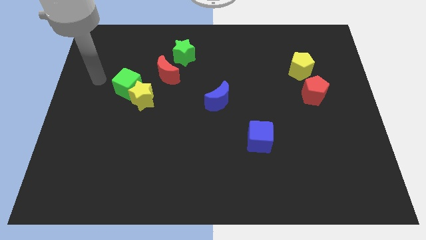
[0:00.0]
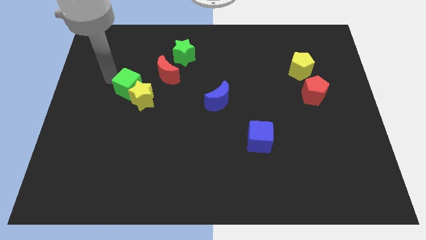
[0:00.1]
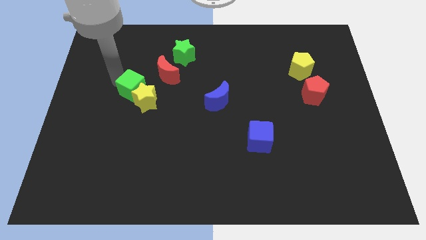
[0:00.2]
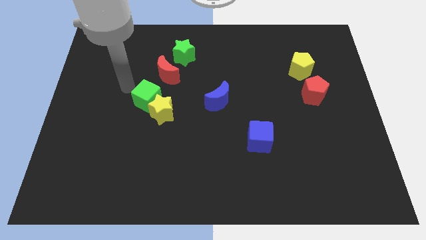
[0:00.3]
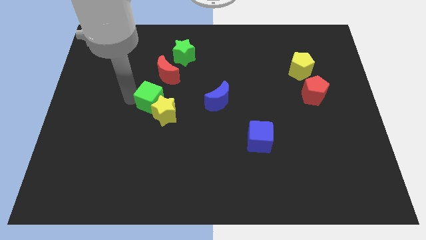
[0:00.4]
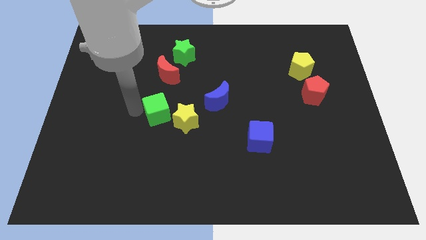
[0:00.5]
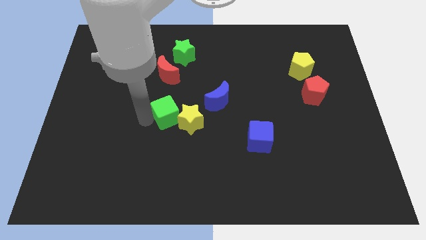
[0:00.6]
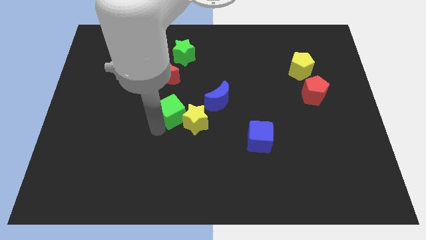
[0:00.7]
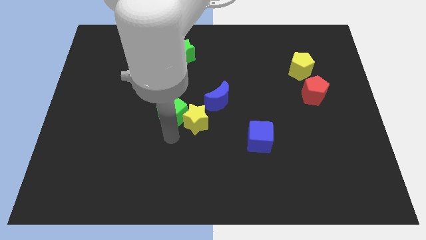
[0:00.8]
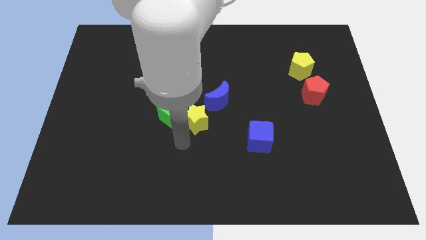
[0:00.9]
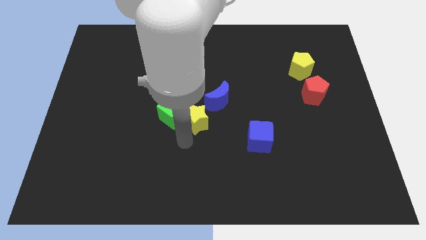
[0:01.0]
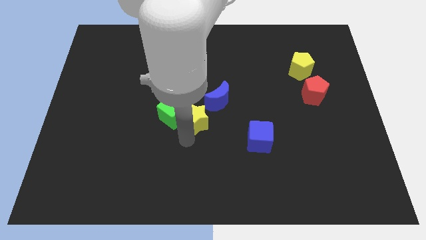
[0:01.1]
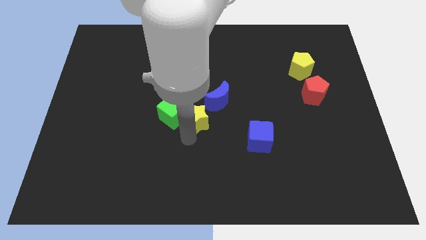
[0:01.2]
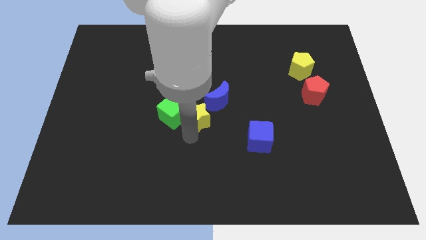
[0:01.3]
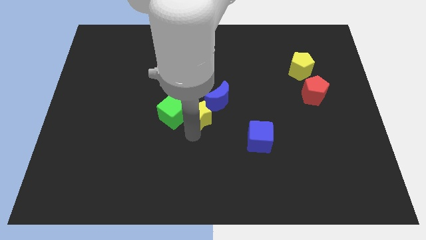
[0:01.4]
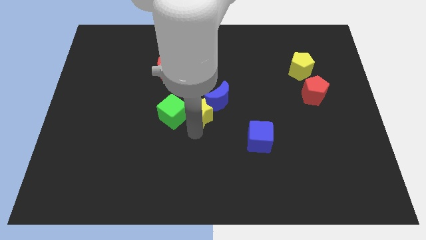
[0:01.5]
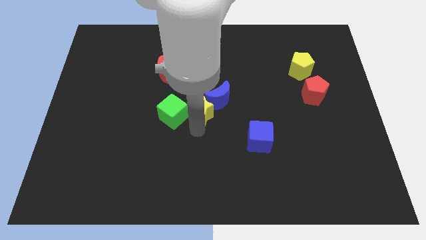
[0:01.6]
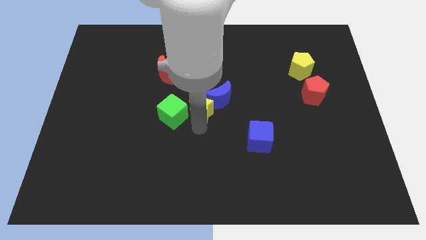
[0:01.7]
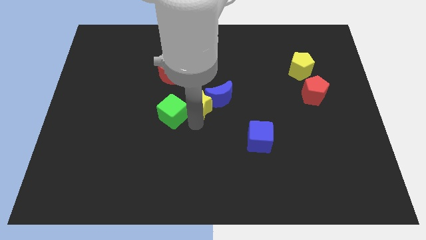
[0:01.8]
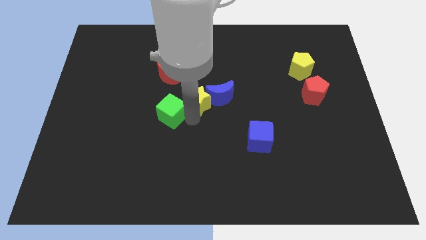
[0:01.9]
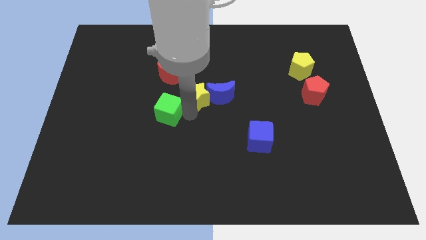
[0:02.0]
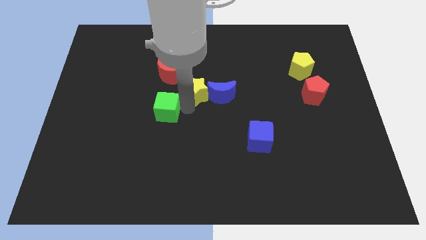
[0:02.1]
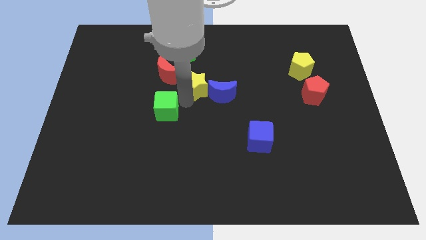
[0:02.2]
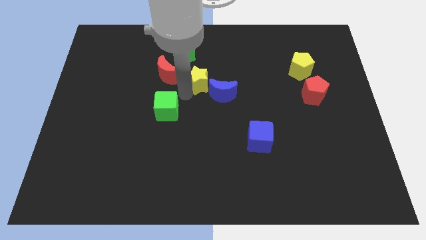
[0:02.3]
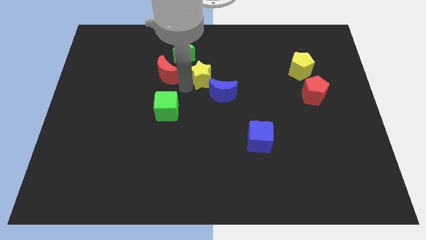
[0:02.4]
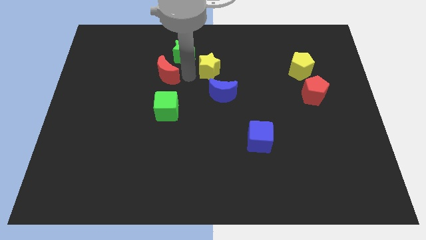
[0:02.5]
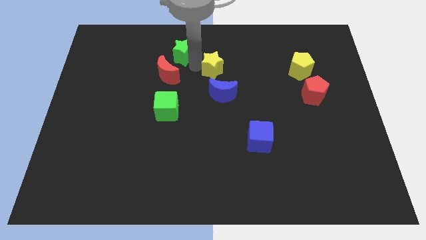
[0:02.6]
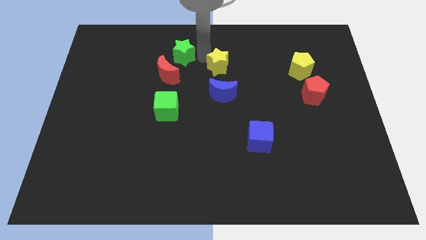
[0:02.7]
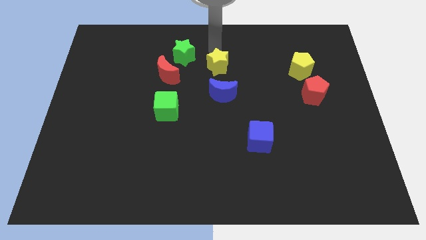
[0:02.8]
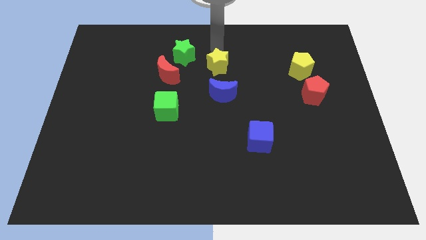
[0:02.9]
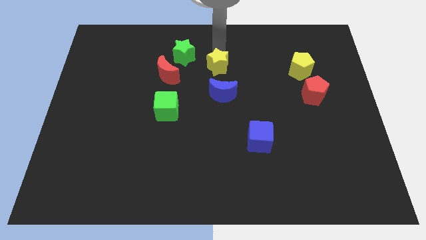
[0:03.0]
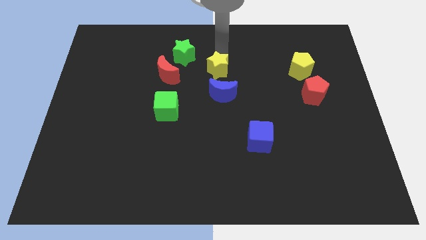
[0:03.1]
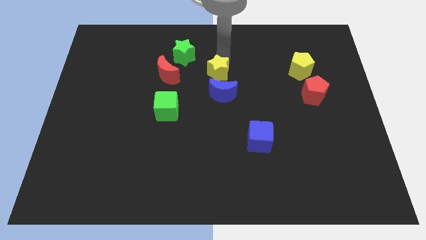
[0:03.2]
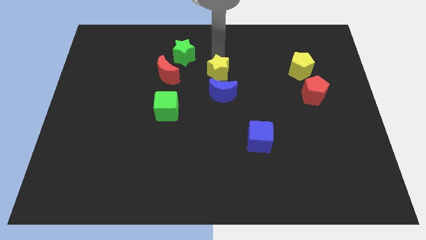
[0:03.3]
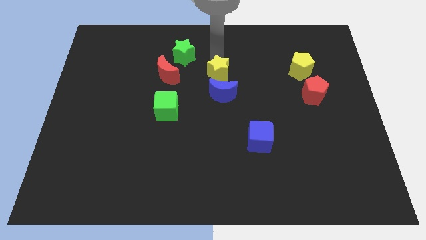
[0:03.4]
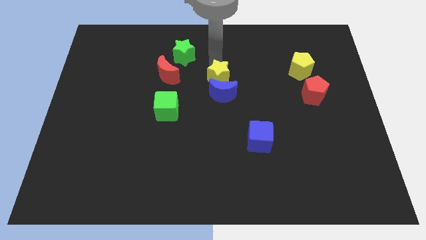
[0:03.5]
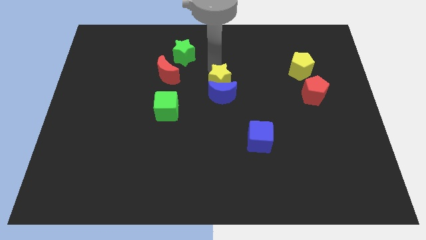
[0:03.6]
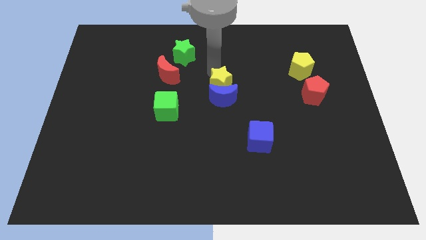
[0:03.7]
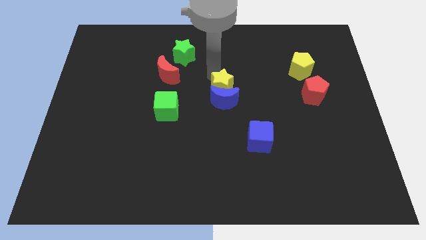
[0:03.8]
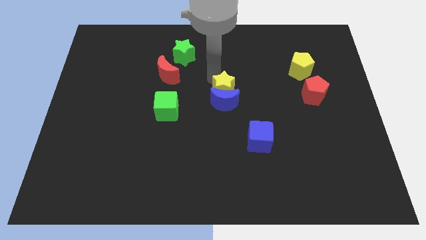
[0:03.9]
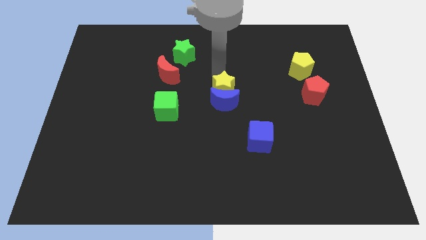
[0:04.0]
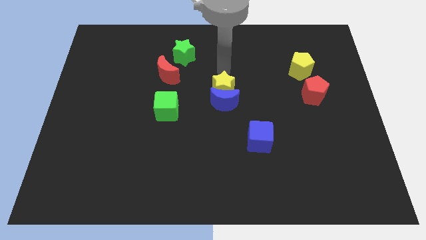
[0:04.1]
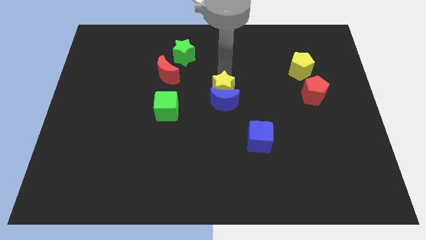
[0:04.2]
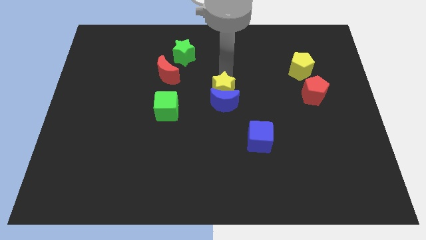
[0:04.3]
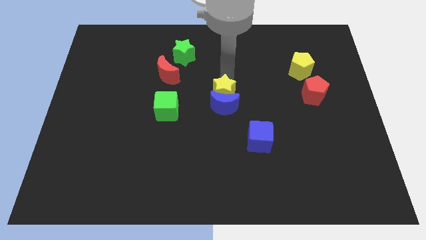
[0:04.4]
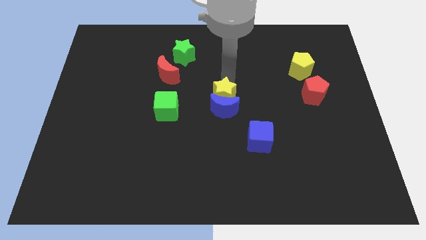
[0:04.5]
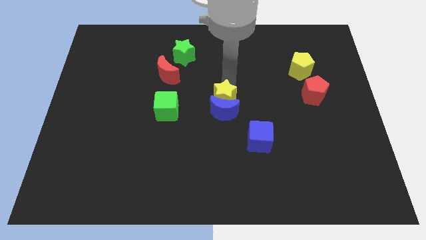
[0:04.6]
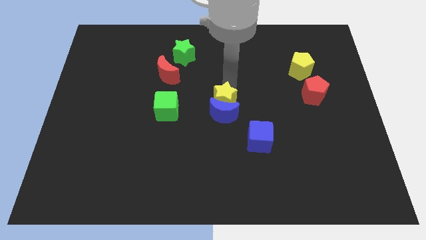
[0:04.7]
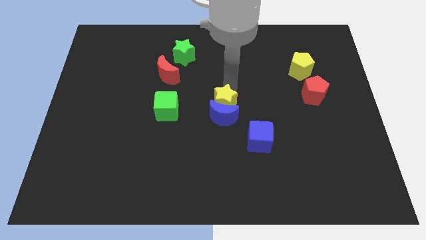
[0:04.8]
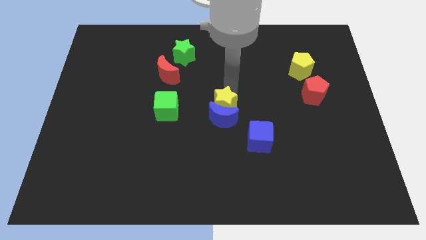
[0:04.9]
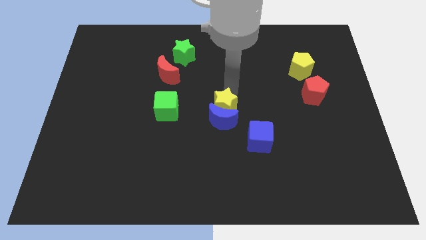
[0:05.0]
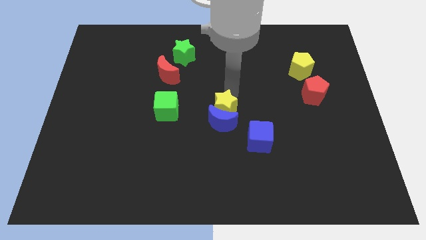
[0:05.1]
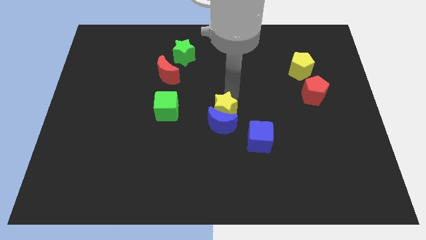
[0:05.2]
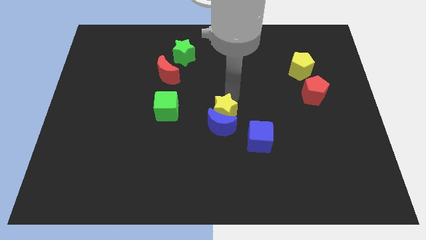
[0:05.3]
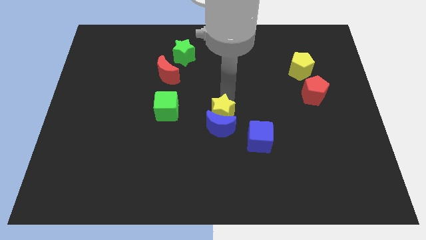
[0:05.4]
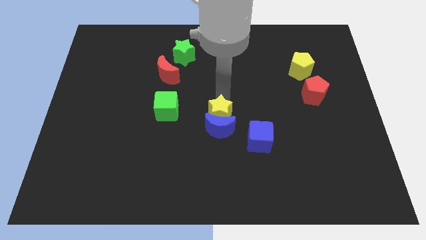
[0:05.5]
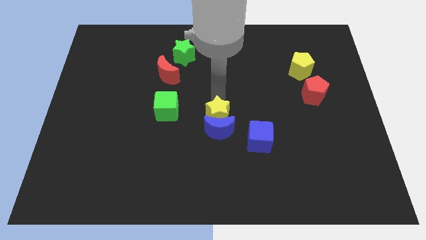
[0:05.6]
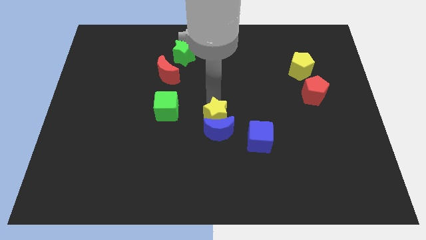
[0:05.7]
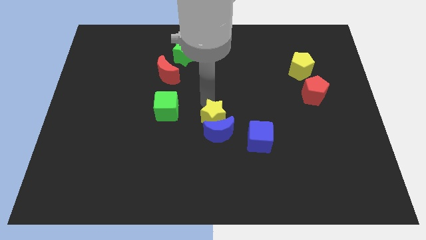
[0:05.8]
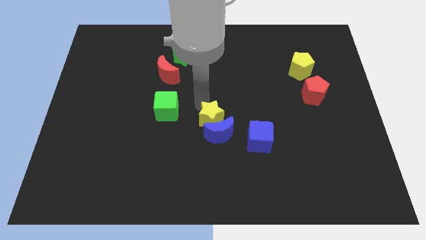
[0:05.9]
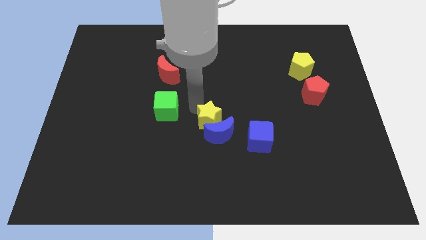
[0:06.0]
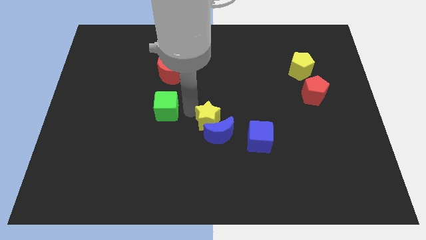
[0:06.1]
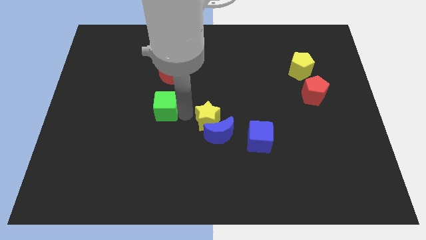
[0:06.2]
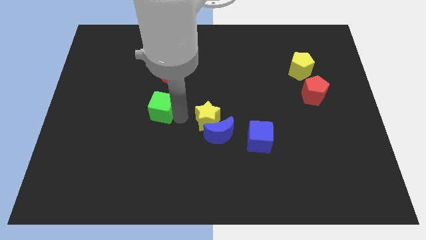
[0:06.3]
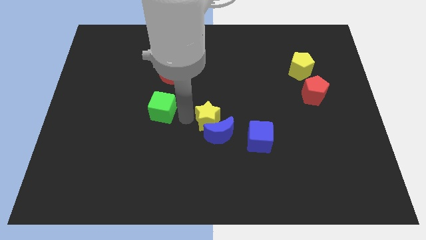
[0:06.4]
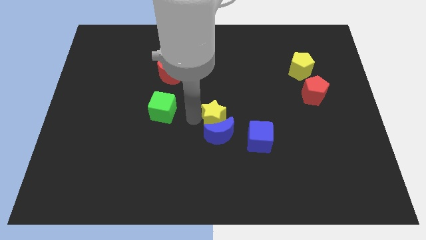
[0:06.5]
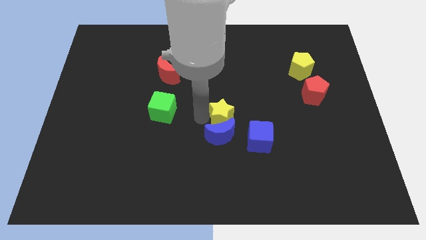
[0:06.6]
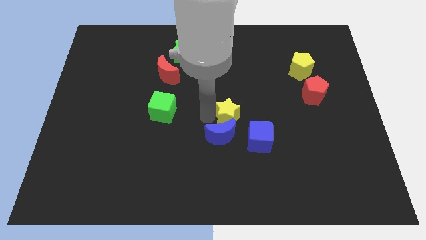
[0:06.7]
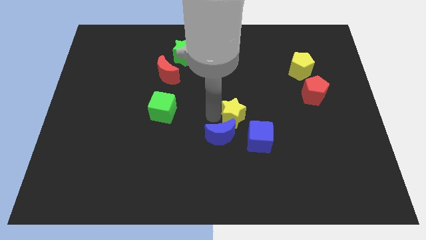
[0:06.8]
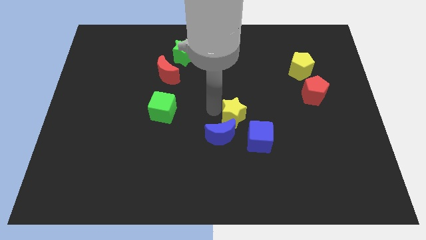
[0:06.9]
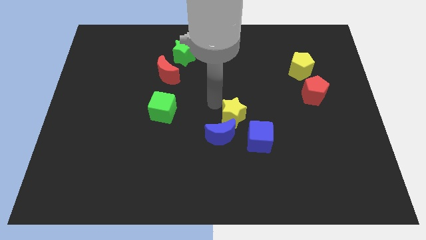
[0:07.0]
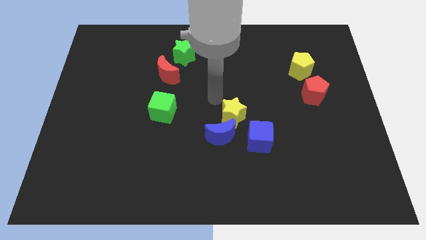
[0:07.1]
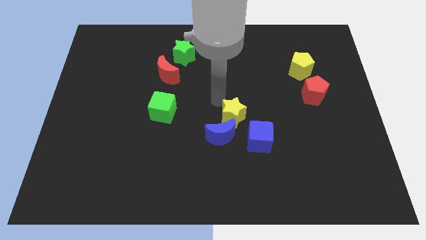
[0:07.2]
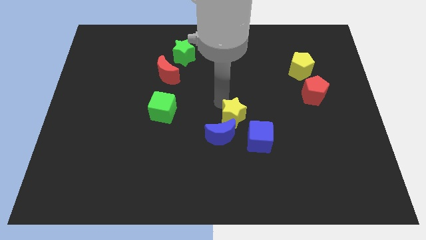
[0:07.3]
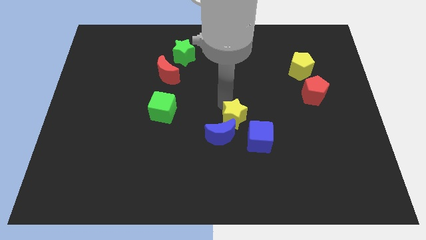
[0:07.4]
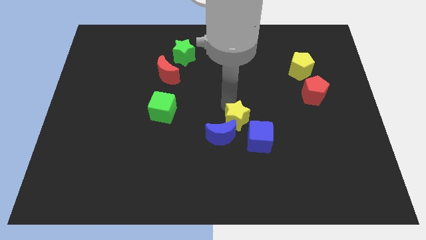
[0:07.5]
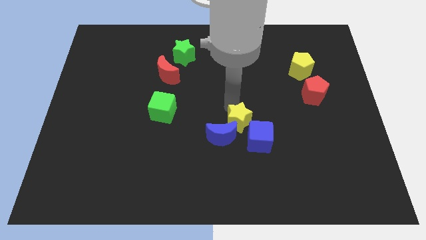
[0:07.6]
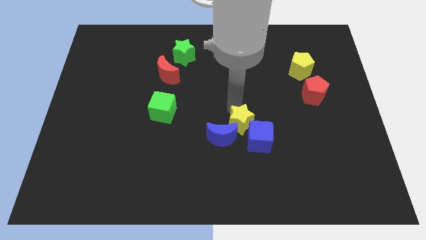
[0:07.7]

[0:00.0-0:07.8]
move the yellow star next to the blue cube
